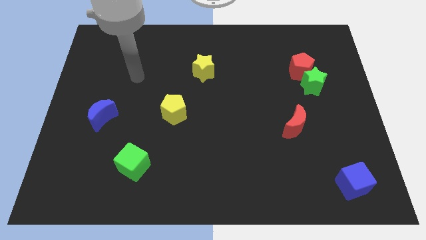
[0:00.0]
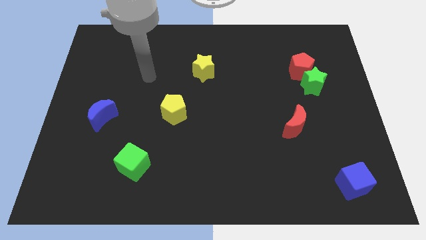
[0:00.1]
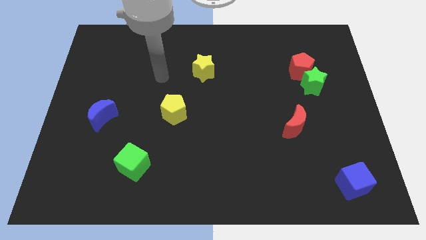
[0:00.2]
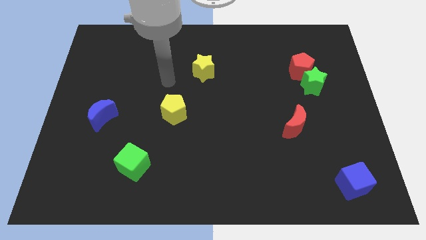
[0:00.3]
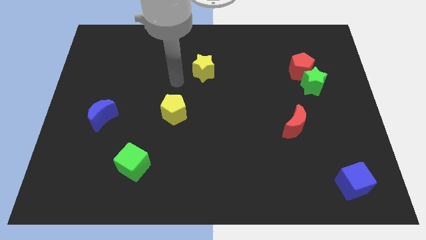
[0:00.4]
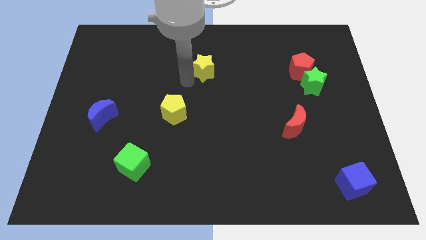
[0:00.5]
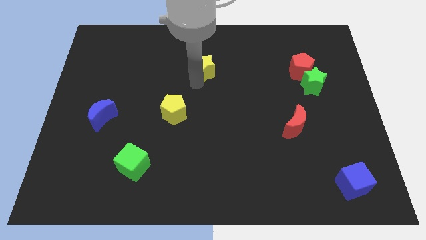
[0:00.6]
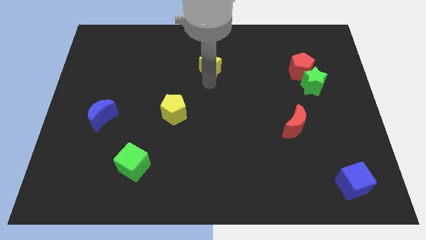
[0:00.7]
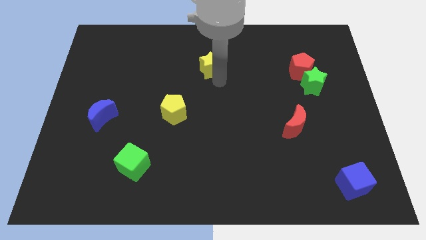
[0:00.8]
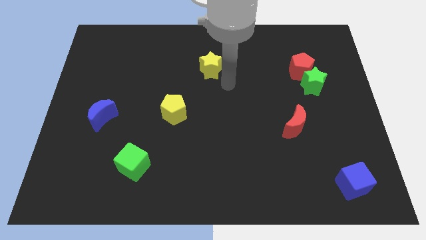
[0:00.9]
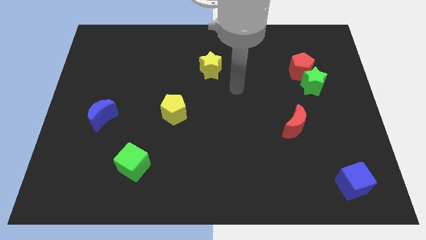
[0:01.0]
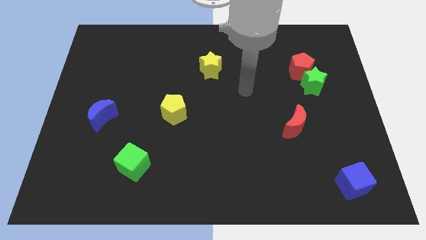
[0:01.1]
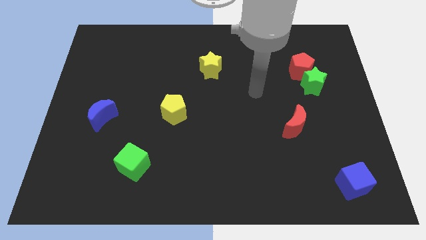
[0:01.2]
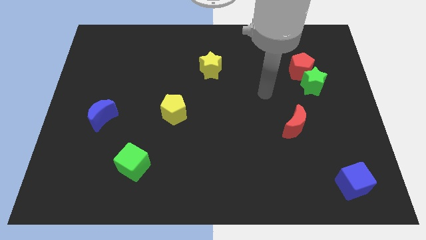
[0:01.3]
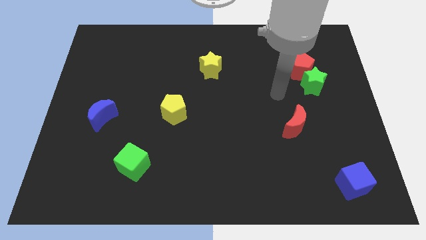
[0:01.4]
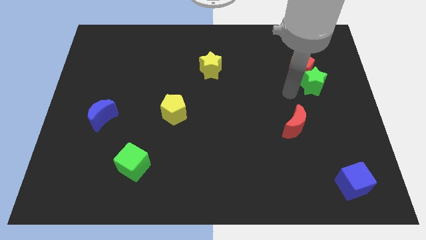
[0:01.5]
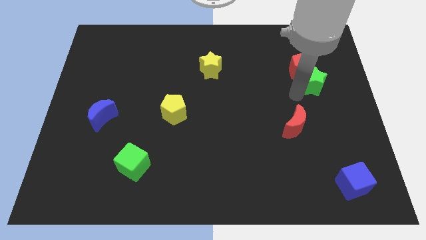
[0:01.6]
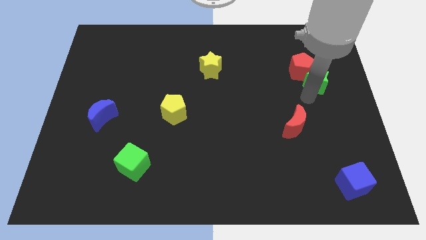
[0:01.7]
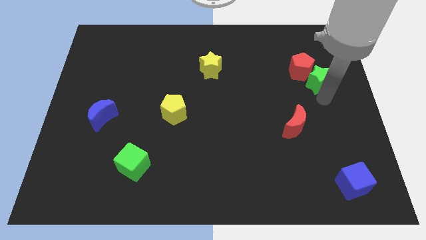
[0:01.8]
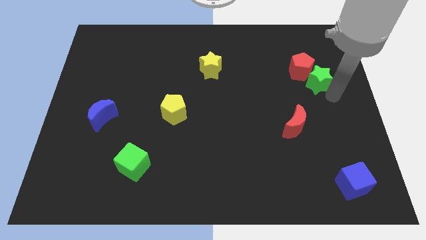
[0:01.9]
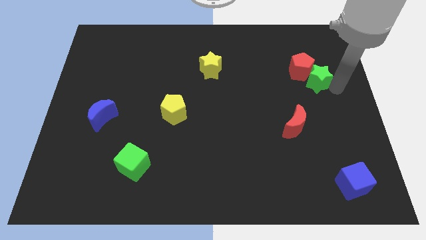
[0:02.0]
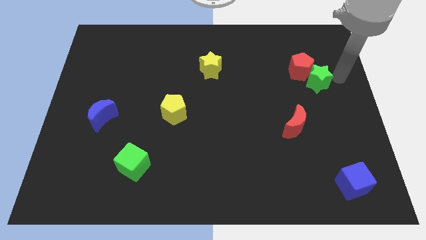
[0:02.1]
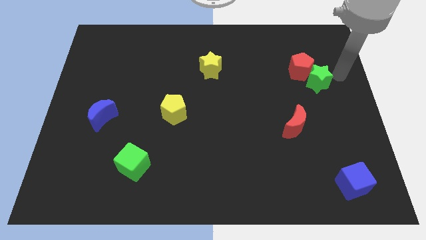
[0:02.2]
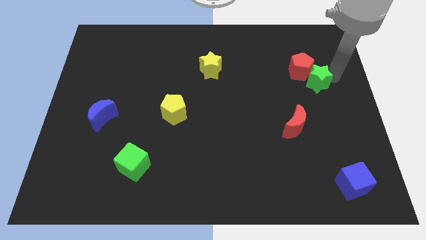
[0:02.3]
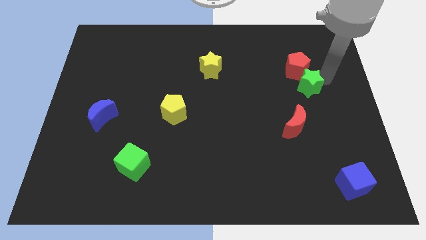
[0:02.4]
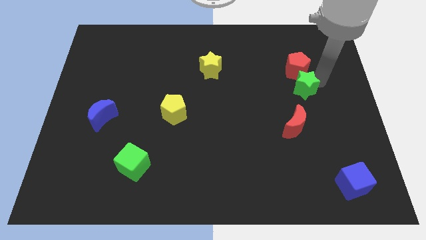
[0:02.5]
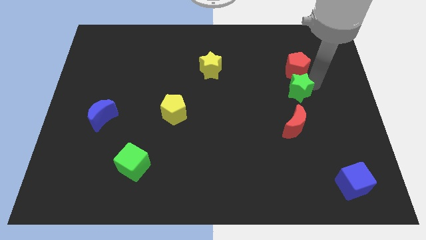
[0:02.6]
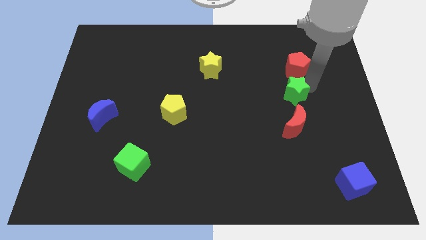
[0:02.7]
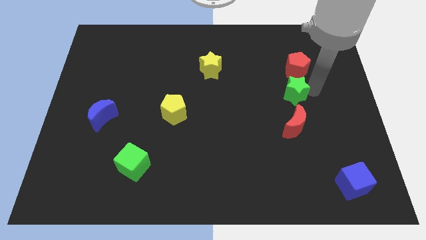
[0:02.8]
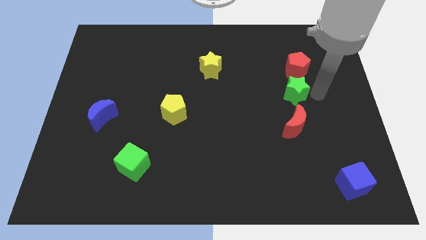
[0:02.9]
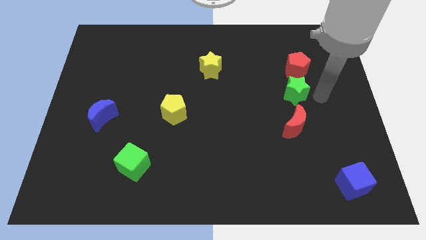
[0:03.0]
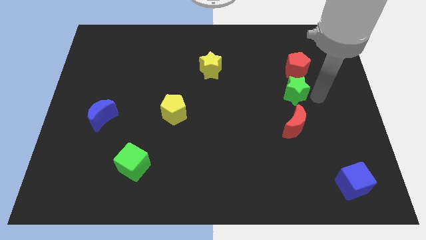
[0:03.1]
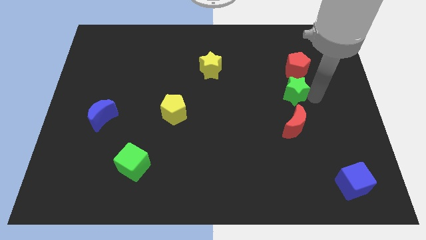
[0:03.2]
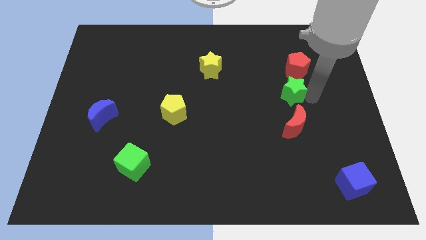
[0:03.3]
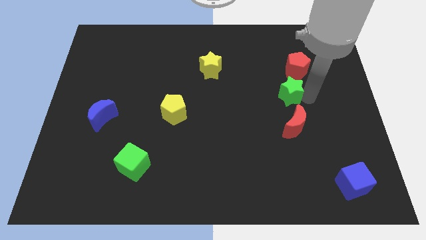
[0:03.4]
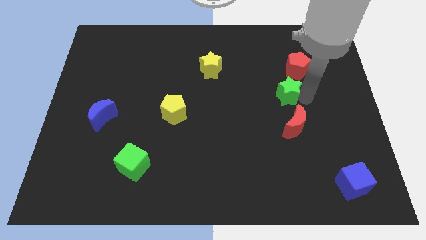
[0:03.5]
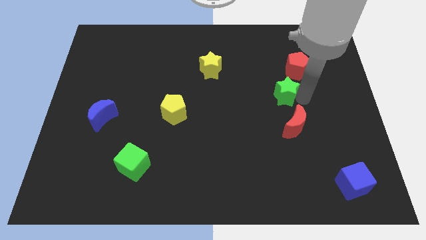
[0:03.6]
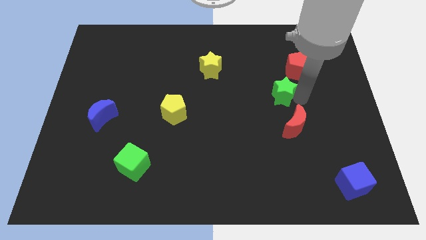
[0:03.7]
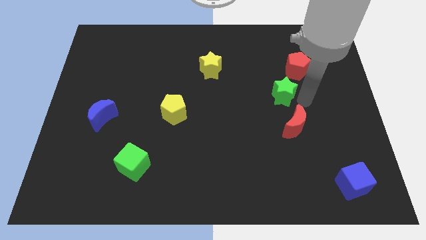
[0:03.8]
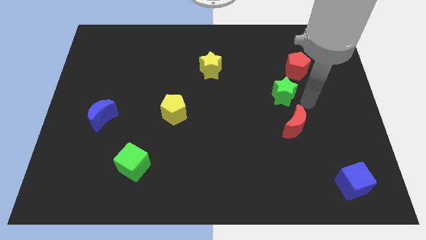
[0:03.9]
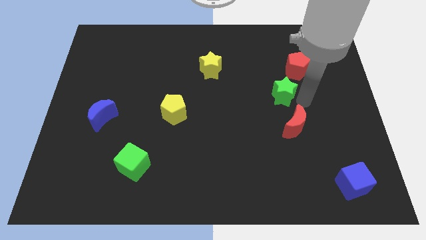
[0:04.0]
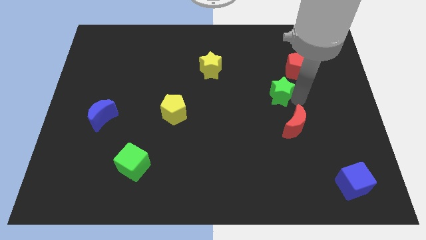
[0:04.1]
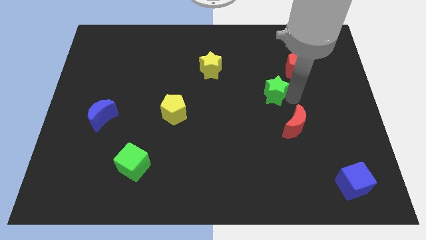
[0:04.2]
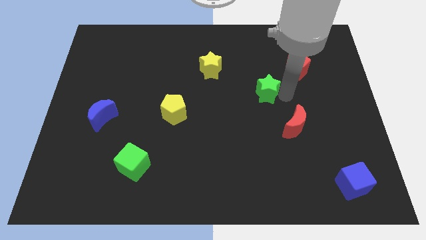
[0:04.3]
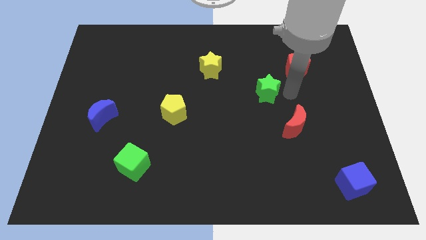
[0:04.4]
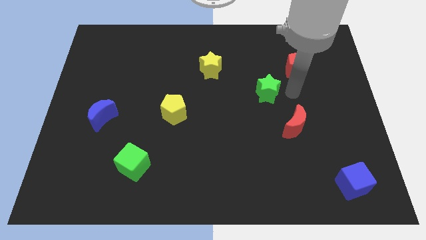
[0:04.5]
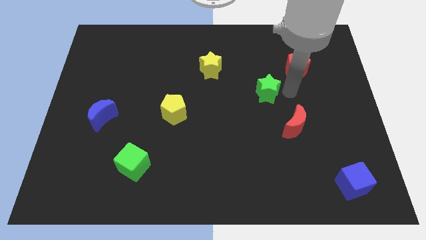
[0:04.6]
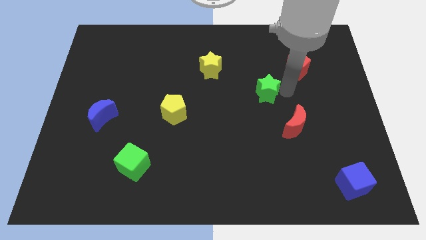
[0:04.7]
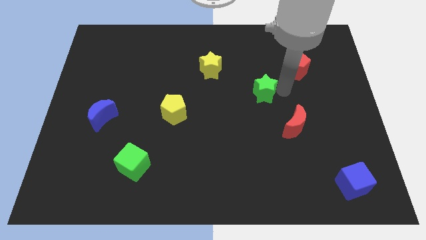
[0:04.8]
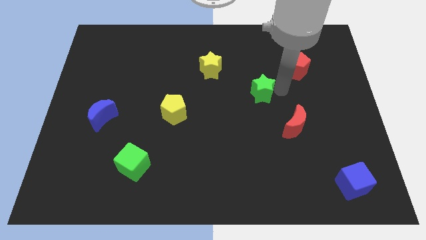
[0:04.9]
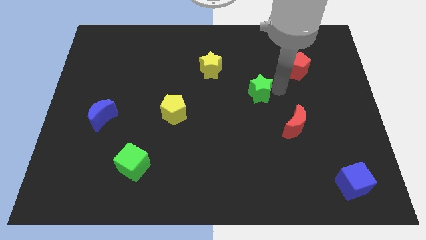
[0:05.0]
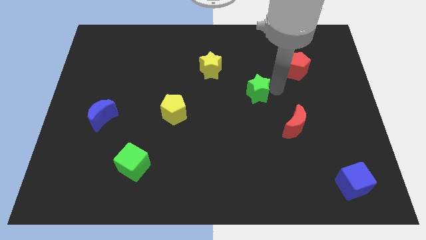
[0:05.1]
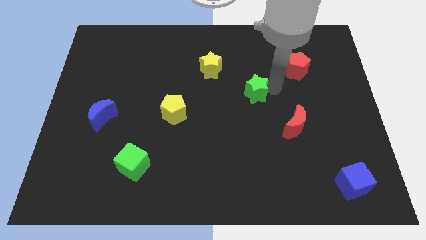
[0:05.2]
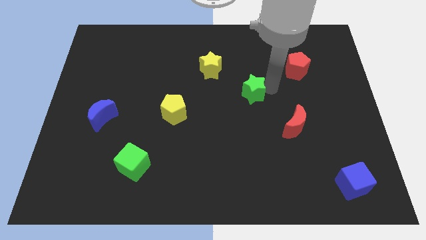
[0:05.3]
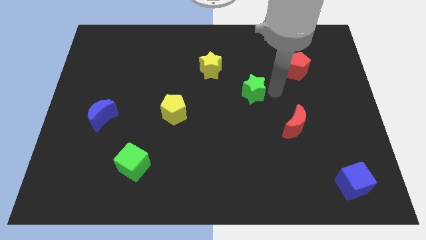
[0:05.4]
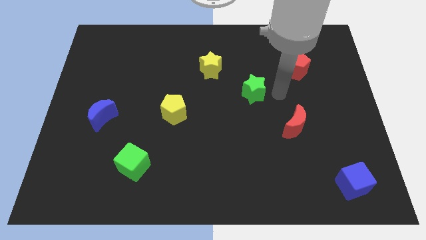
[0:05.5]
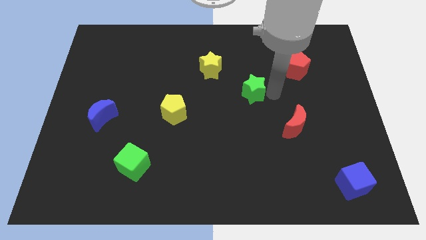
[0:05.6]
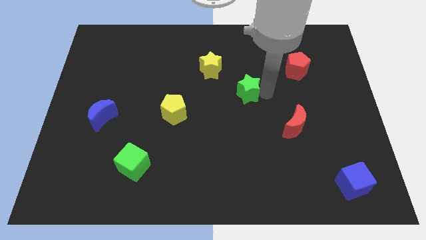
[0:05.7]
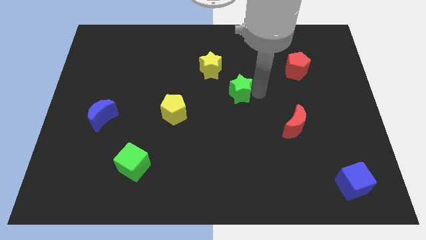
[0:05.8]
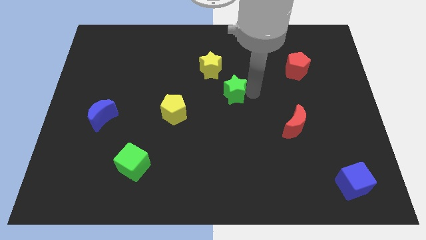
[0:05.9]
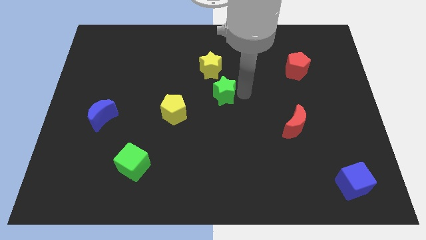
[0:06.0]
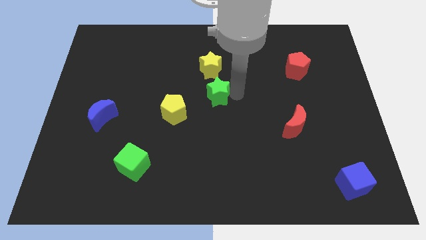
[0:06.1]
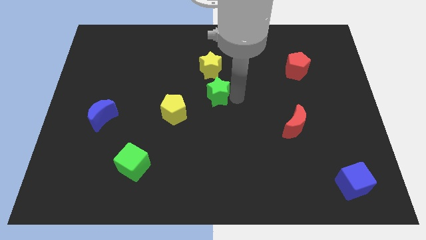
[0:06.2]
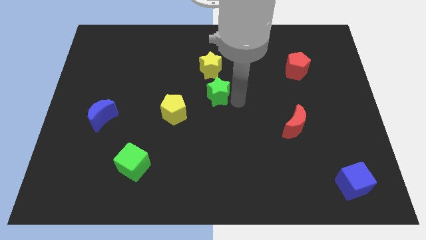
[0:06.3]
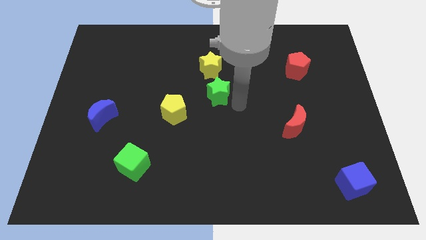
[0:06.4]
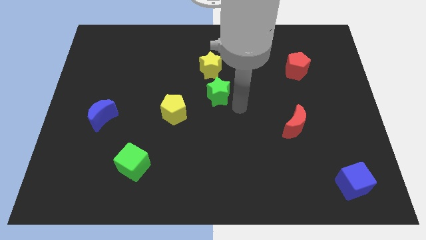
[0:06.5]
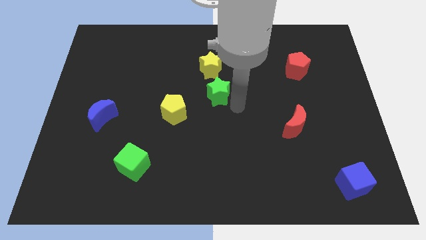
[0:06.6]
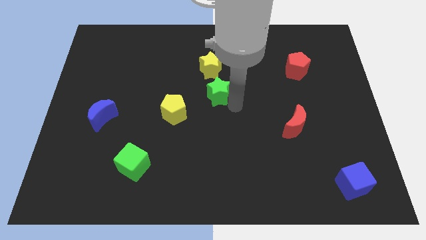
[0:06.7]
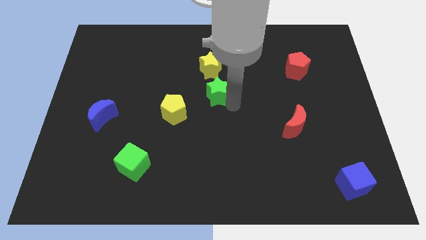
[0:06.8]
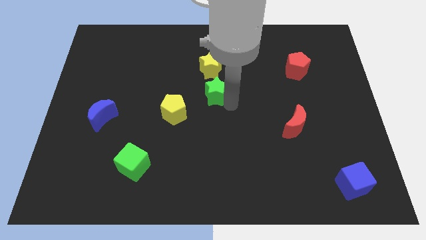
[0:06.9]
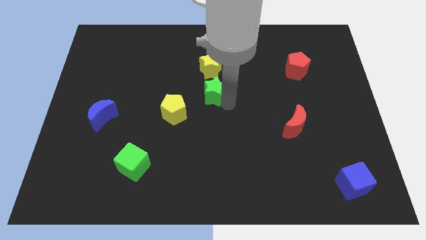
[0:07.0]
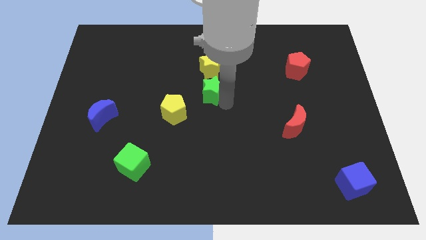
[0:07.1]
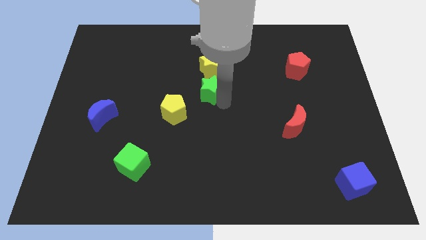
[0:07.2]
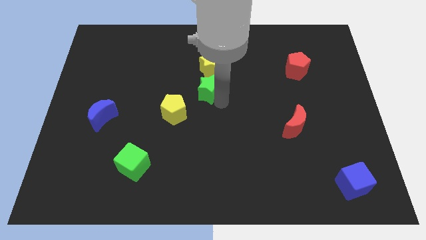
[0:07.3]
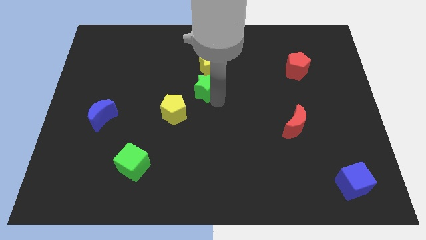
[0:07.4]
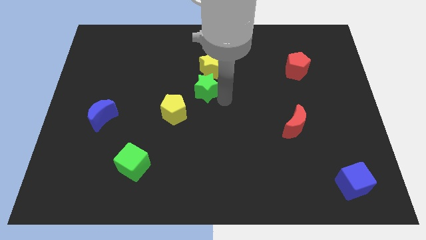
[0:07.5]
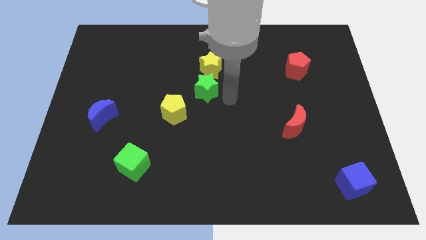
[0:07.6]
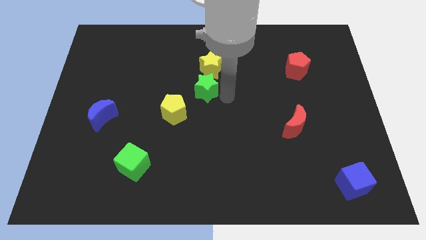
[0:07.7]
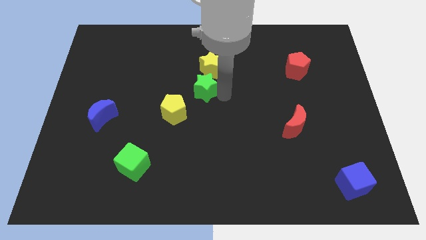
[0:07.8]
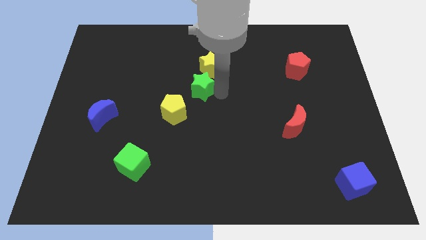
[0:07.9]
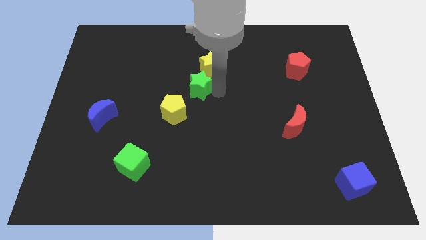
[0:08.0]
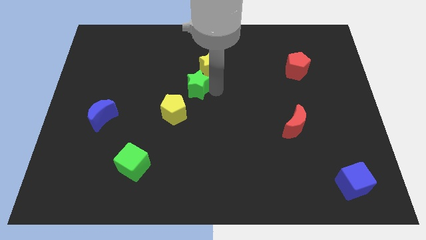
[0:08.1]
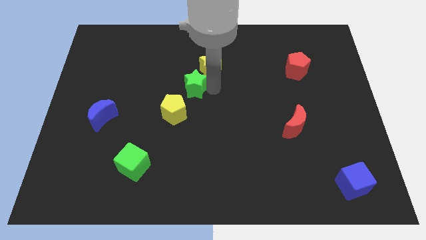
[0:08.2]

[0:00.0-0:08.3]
slide the green star above the yellow pentagon
